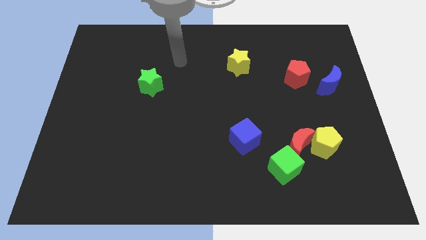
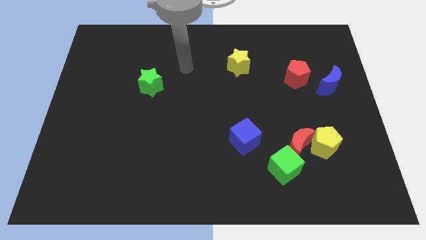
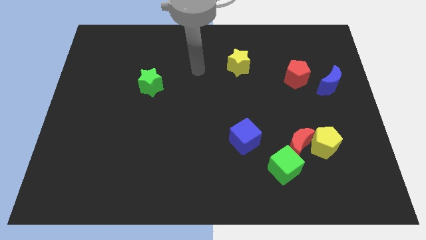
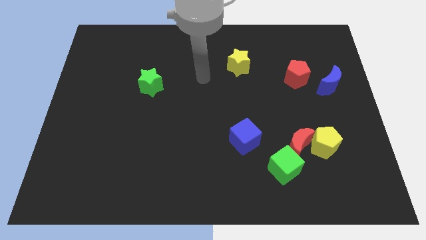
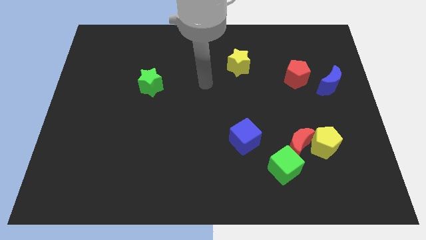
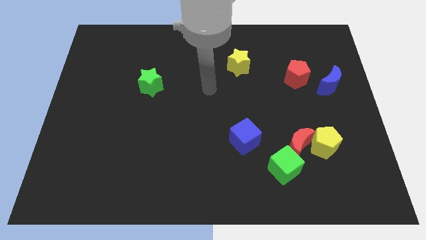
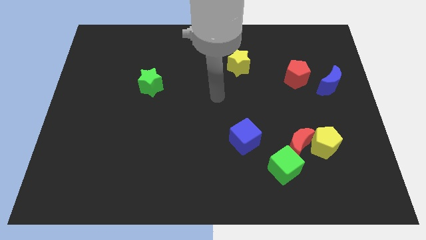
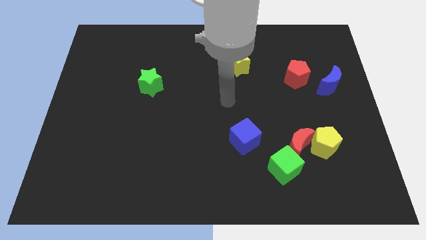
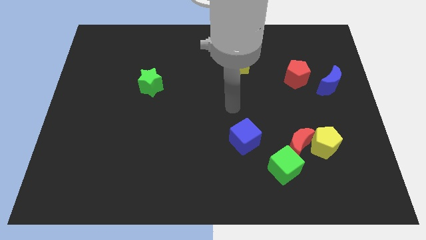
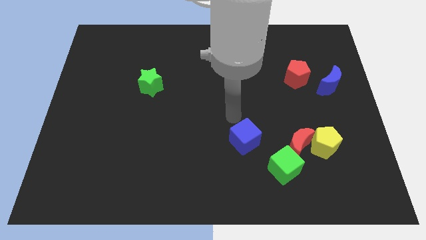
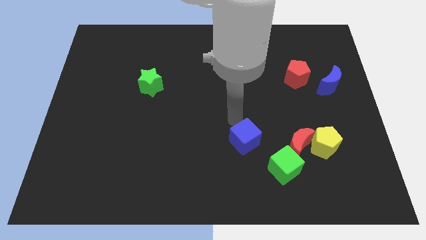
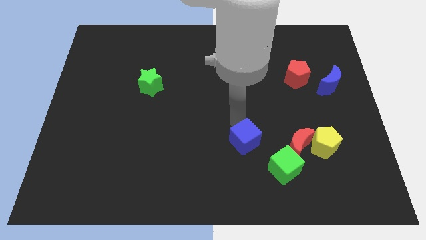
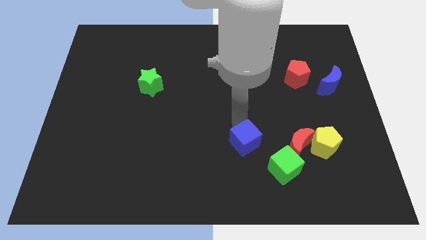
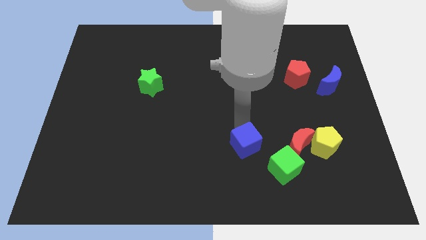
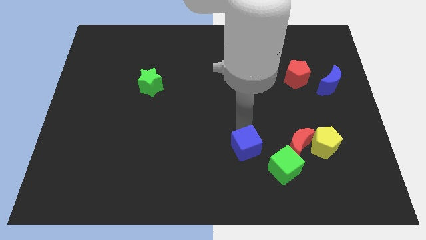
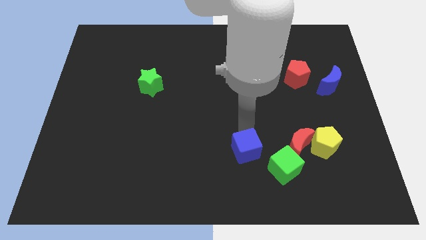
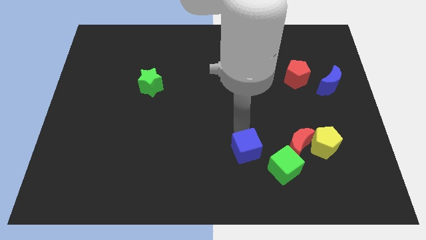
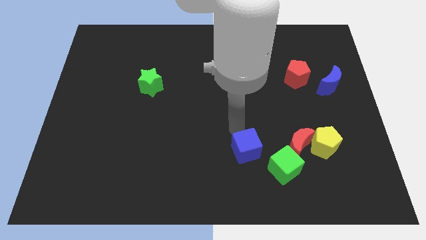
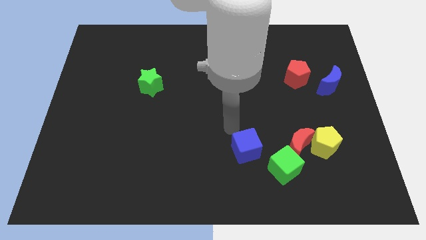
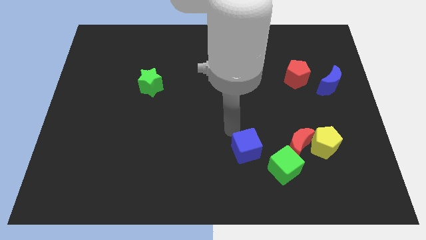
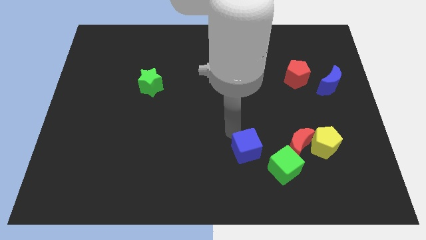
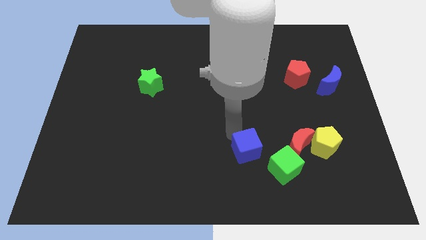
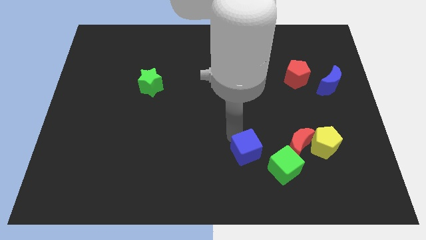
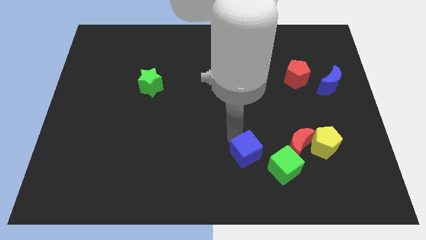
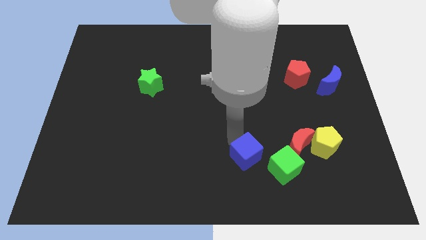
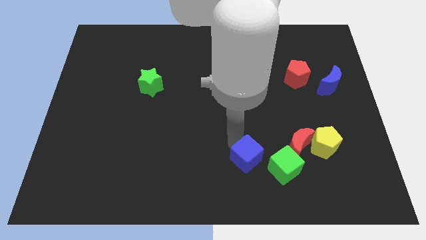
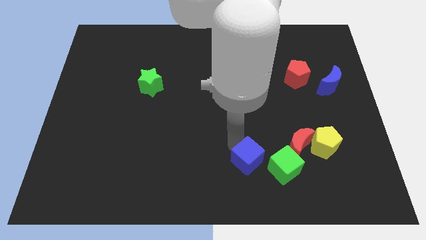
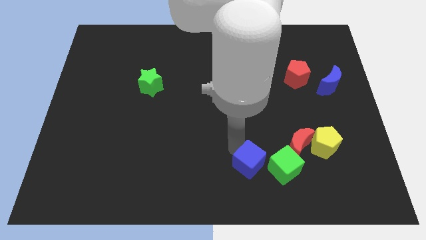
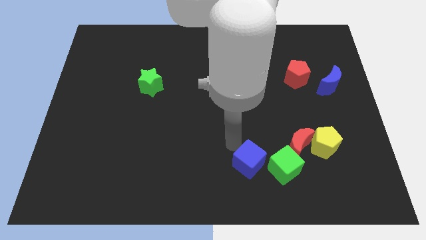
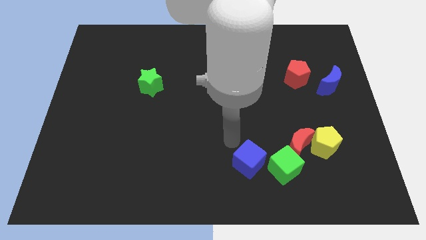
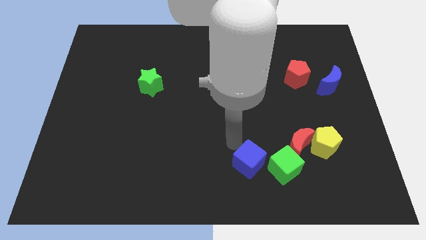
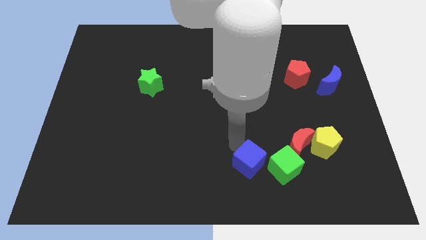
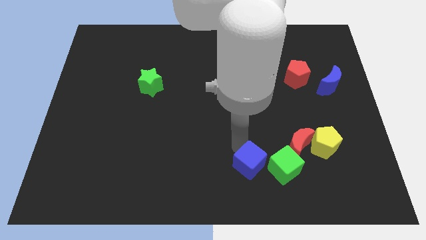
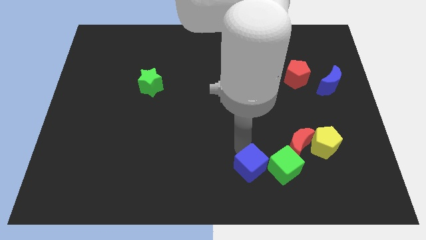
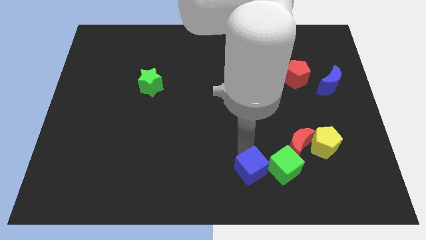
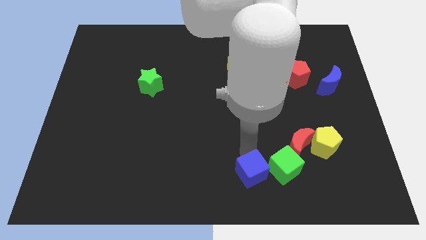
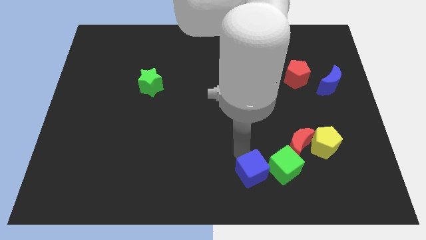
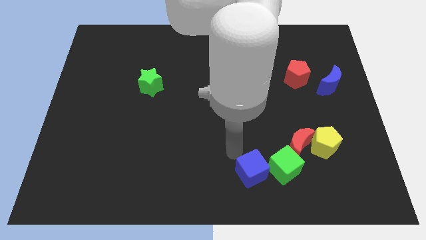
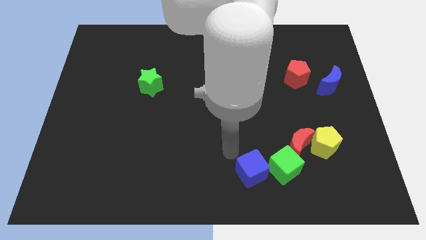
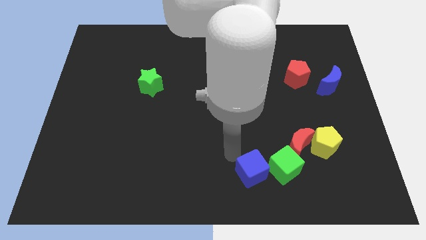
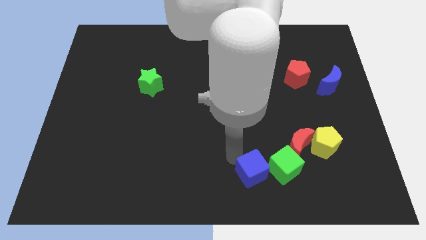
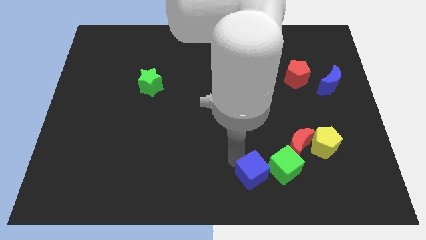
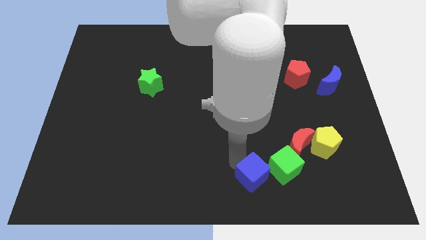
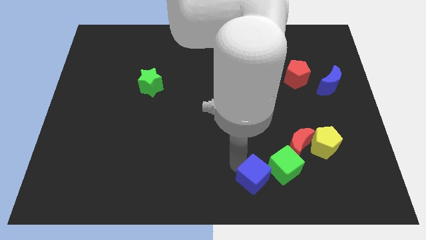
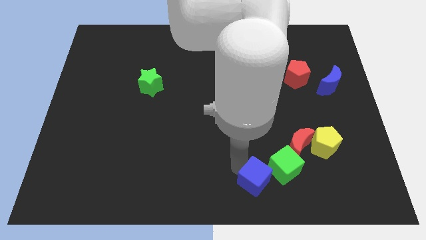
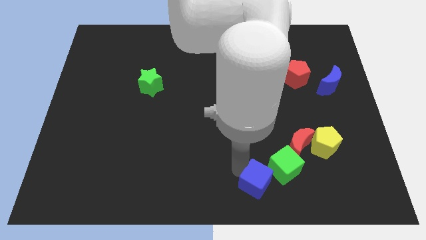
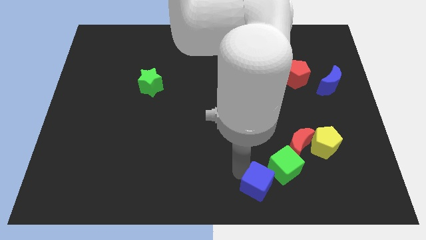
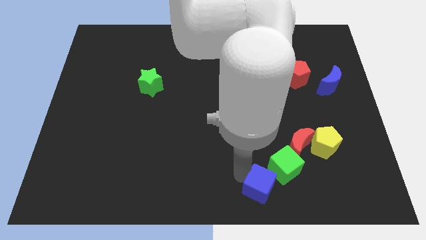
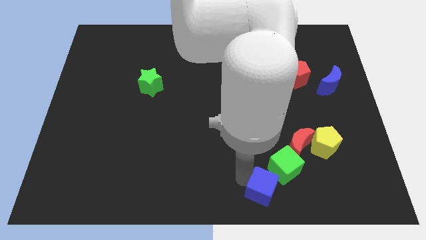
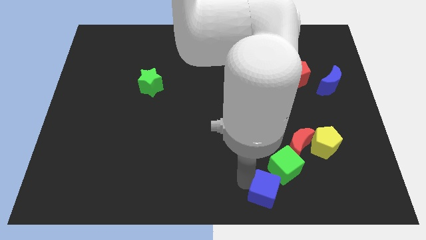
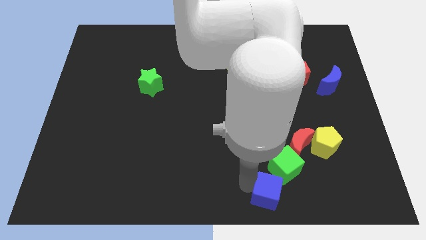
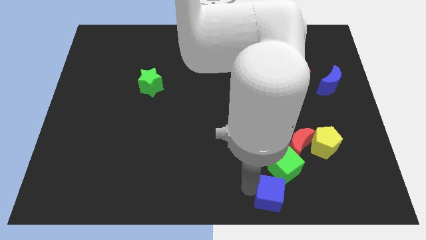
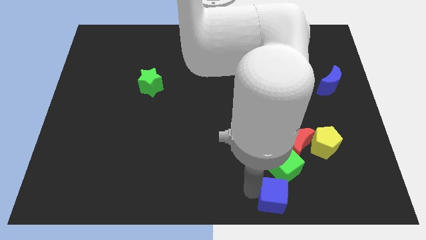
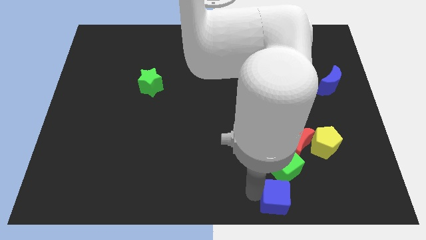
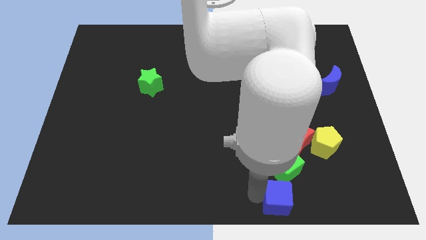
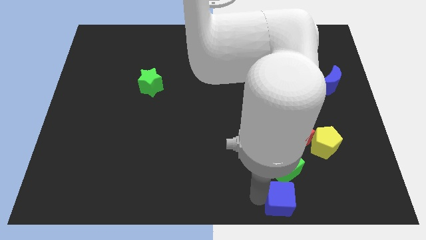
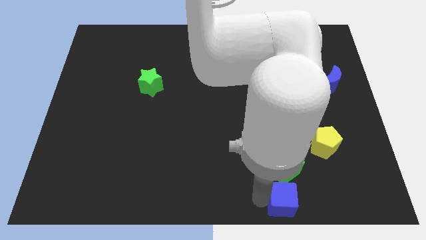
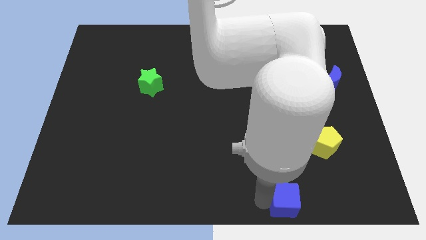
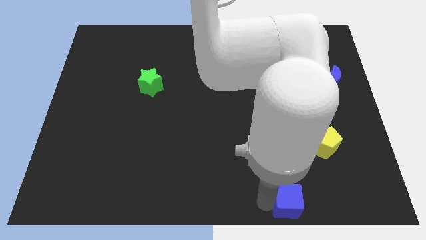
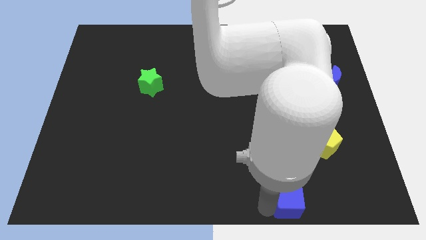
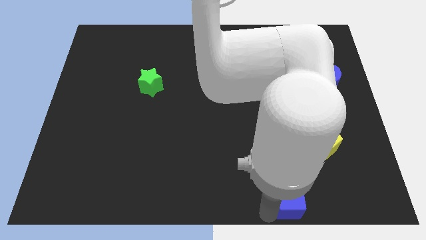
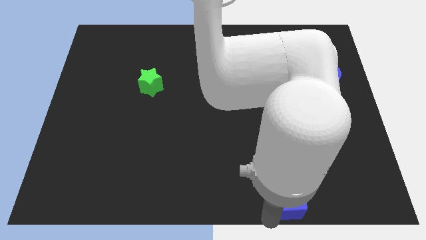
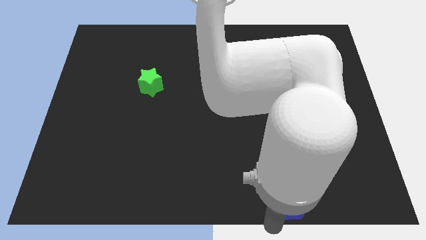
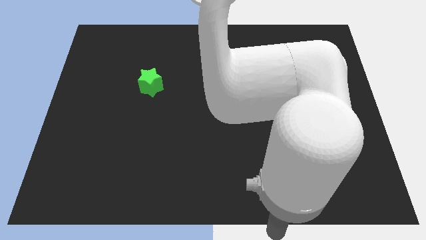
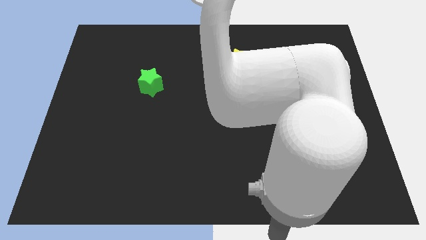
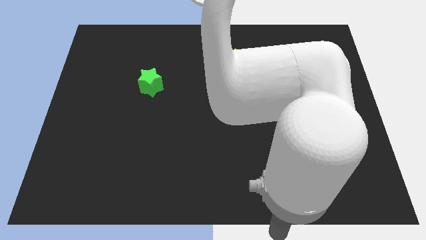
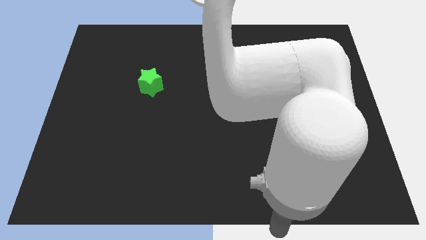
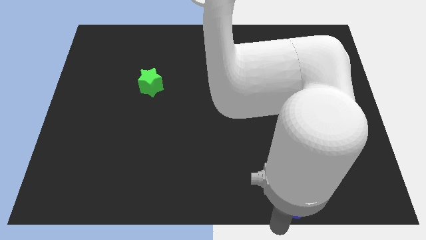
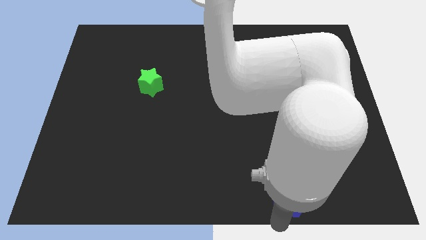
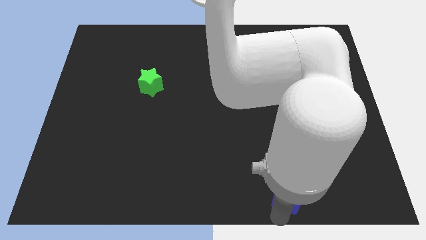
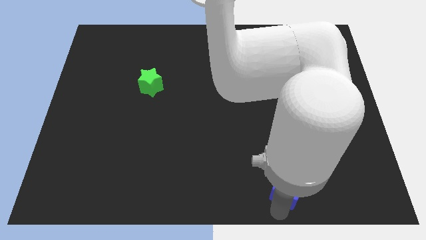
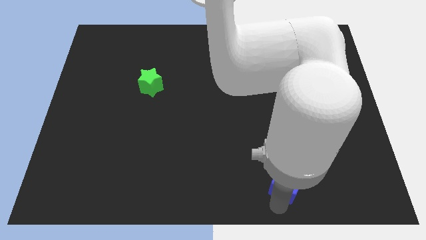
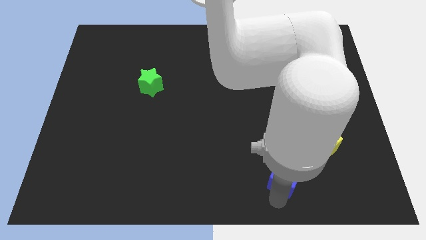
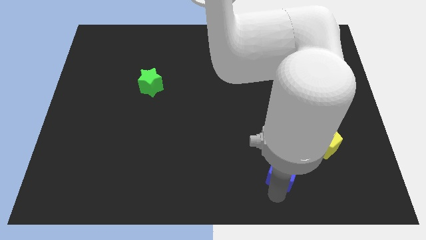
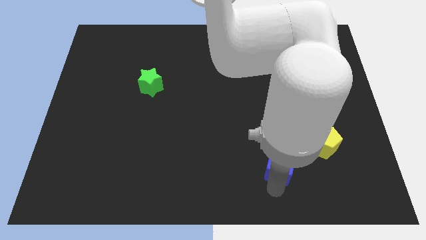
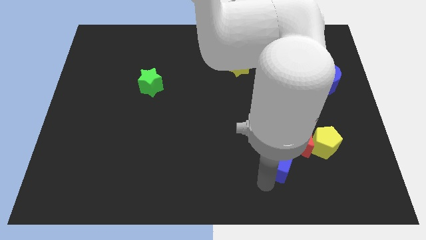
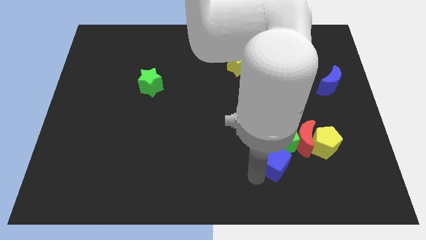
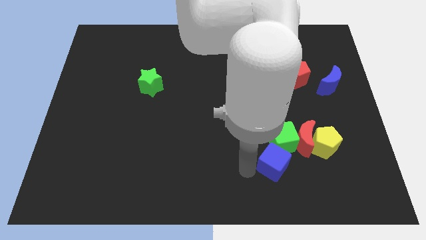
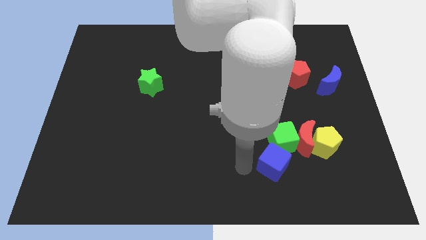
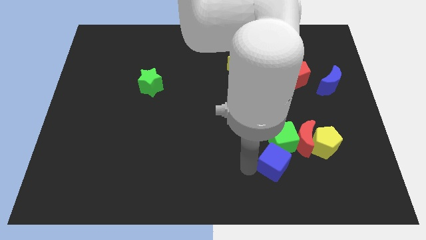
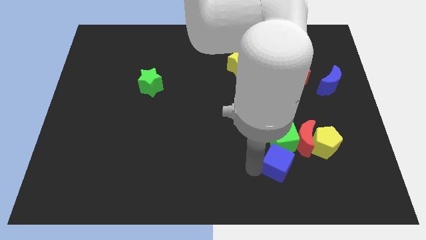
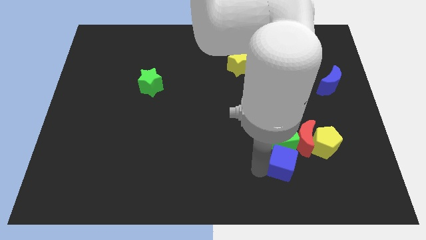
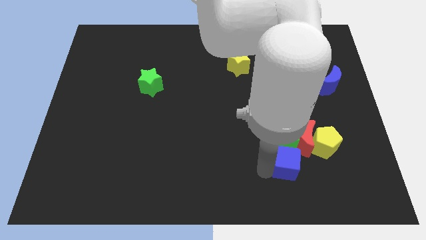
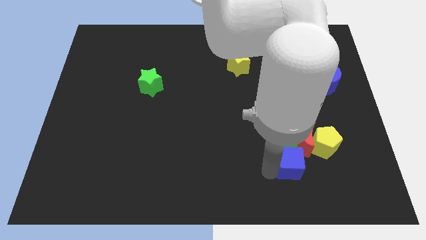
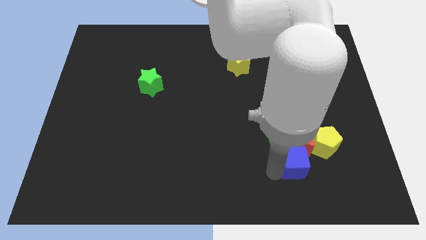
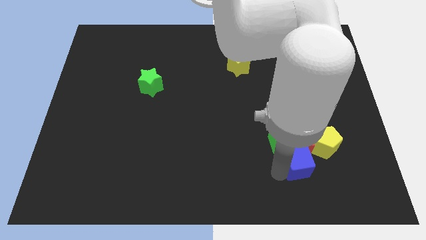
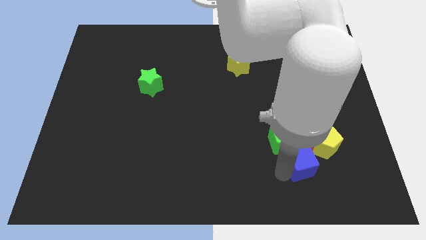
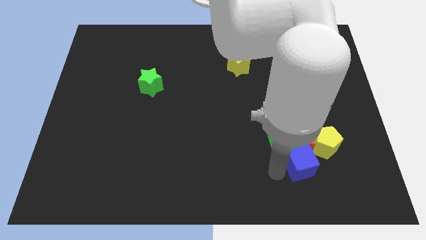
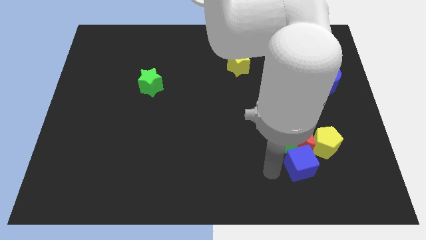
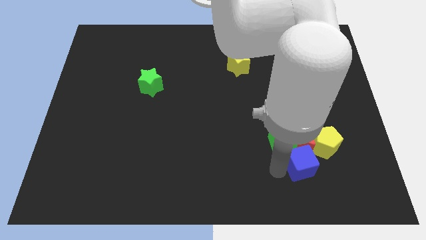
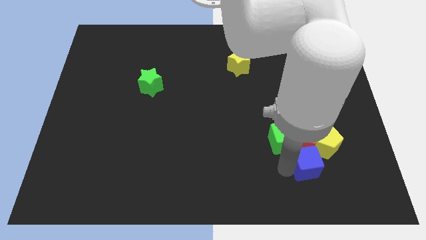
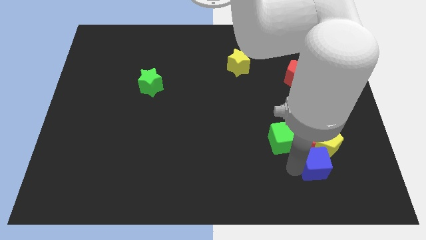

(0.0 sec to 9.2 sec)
slide the blue cube to the bottom right side of the red moon
